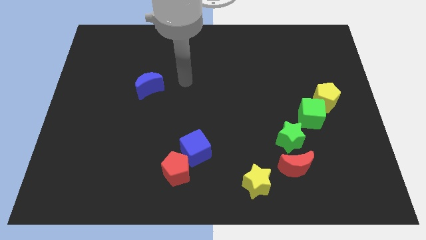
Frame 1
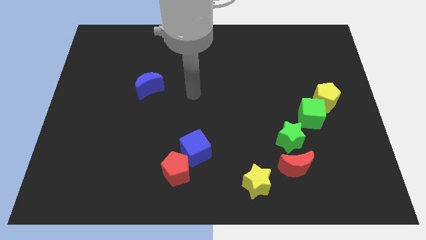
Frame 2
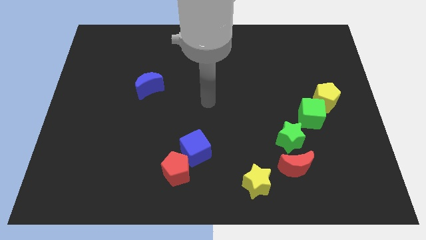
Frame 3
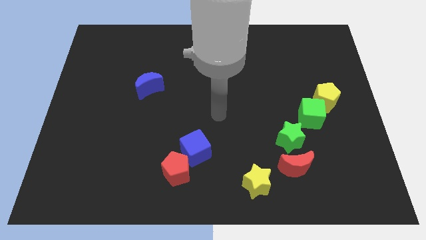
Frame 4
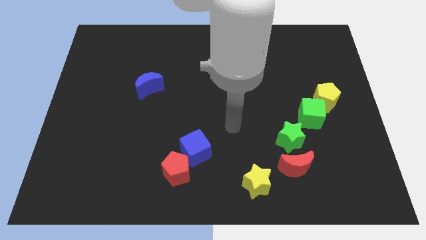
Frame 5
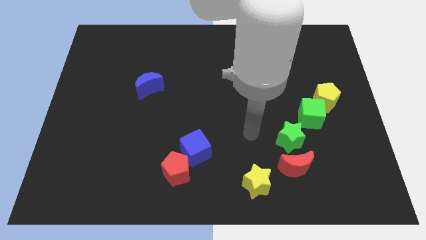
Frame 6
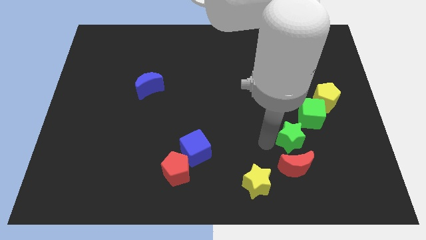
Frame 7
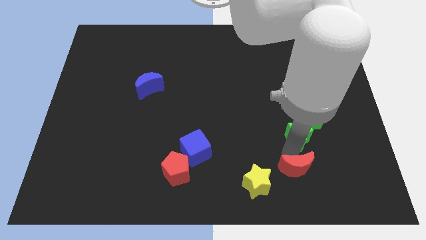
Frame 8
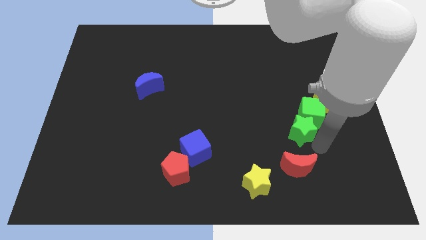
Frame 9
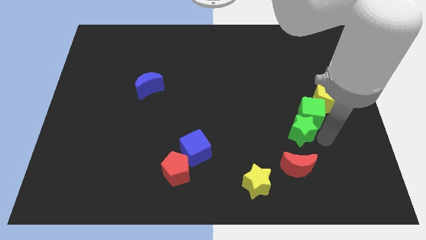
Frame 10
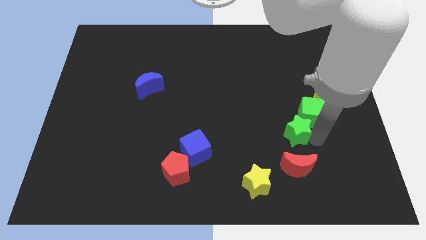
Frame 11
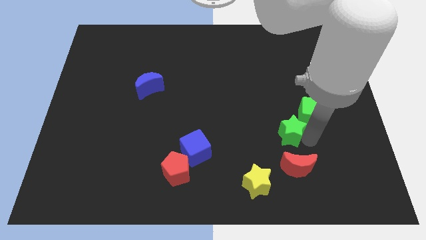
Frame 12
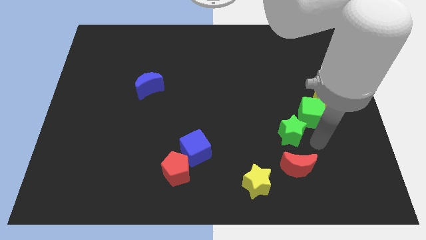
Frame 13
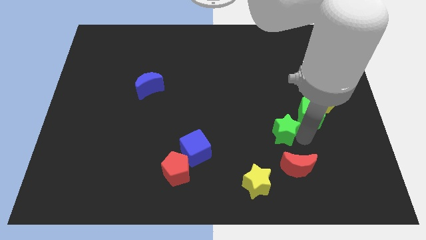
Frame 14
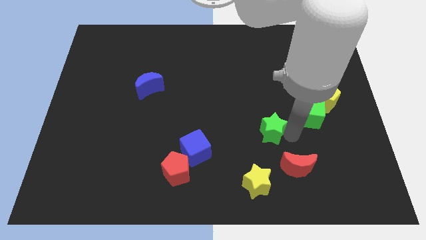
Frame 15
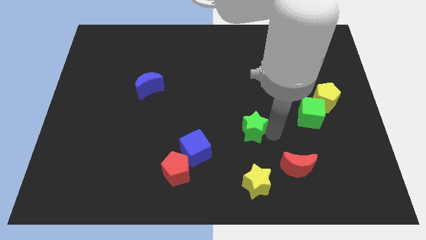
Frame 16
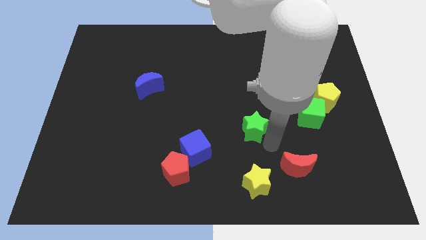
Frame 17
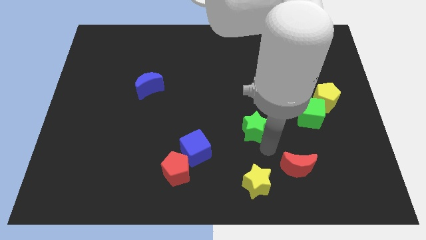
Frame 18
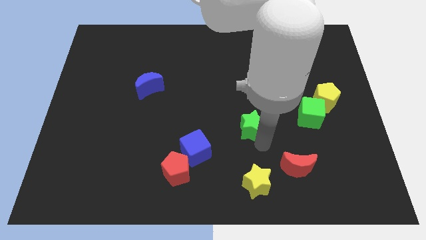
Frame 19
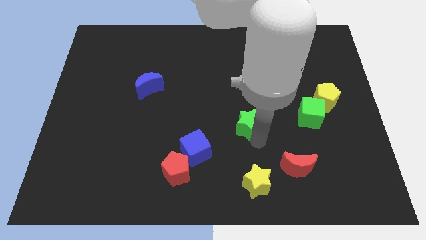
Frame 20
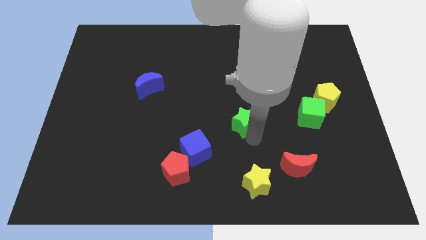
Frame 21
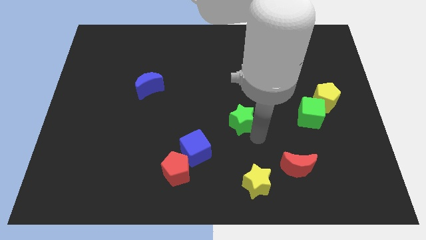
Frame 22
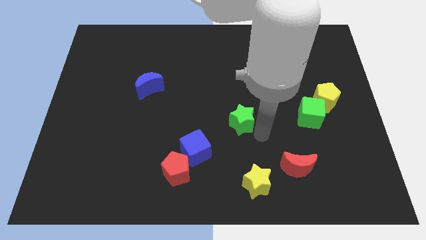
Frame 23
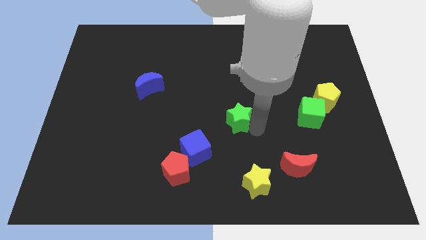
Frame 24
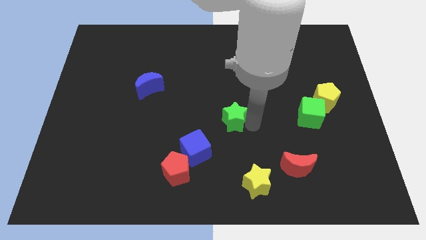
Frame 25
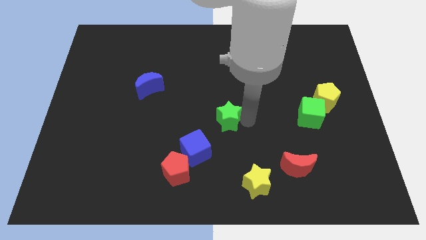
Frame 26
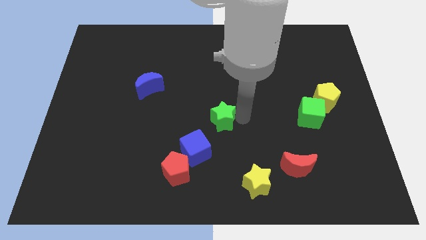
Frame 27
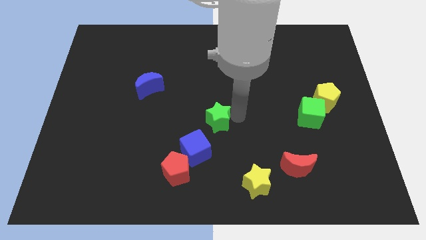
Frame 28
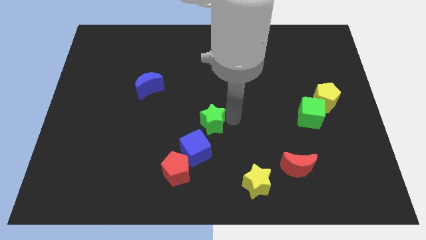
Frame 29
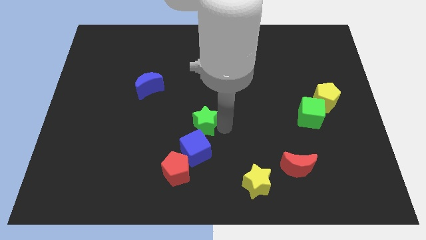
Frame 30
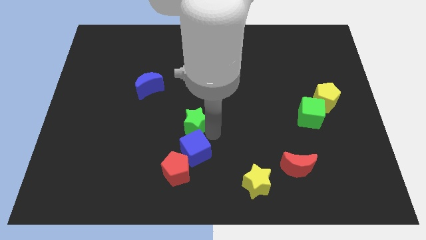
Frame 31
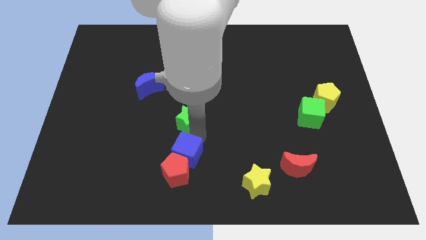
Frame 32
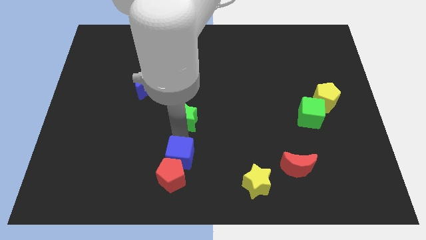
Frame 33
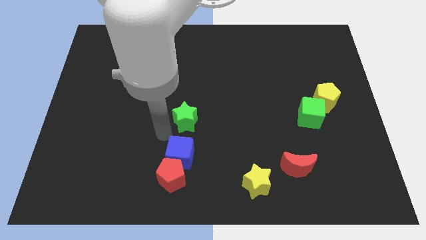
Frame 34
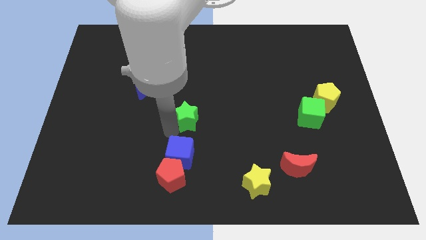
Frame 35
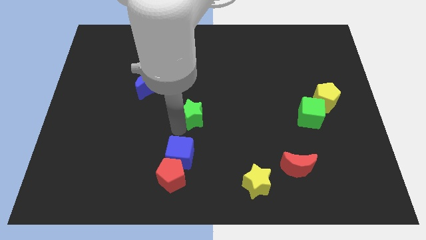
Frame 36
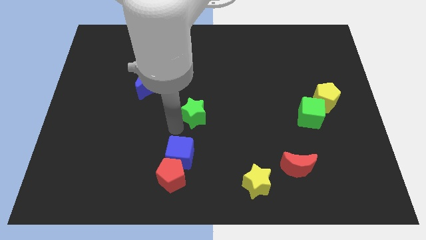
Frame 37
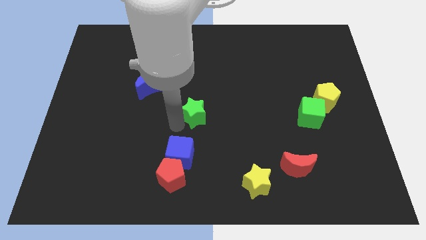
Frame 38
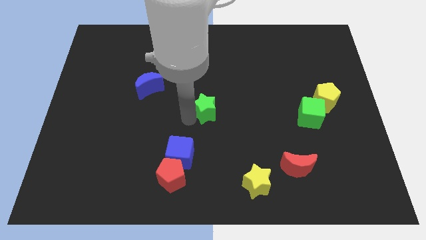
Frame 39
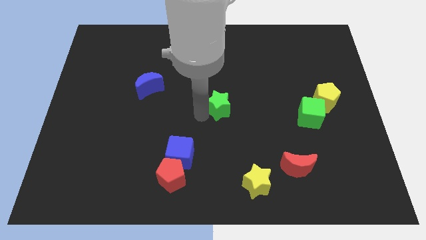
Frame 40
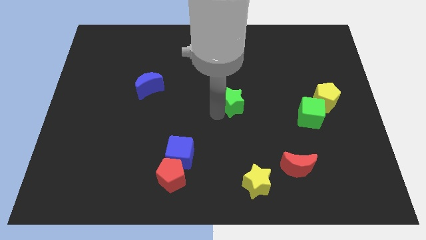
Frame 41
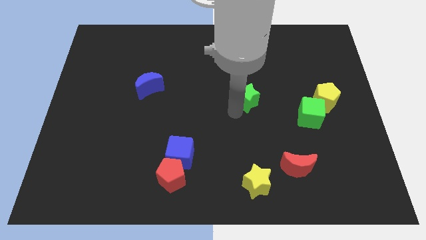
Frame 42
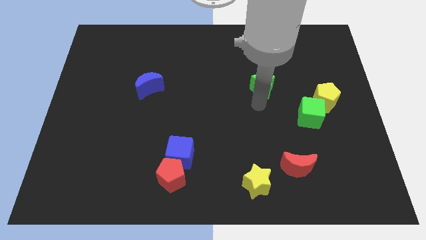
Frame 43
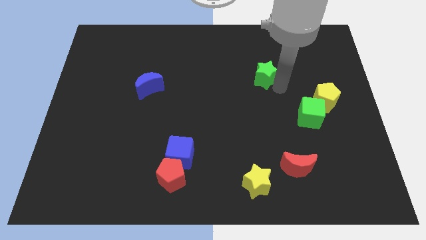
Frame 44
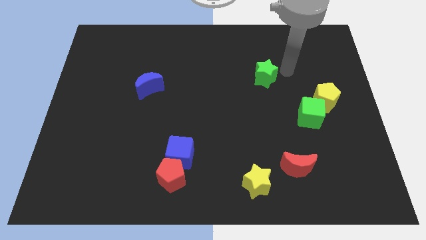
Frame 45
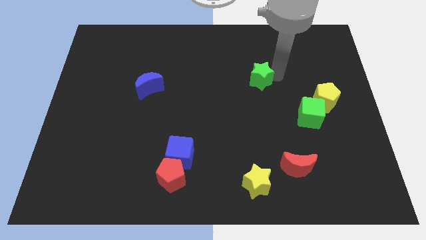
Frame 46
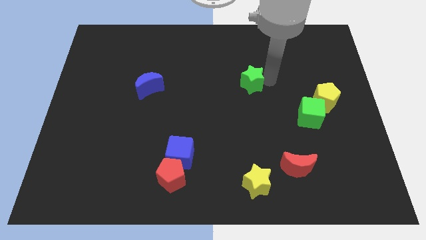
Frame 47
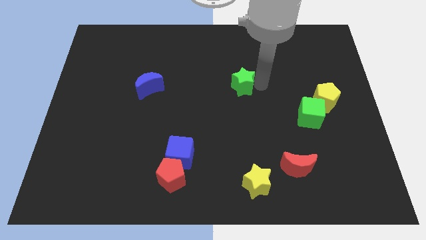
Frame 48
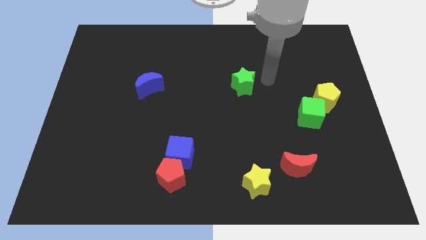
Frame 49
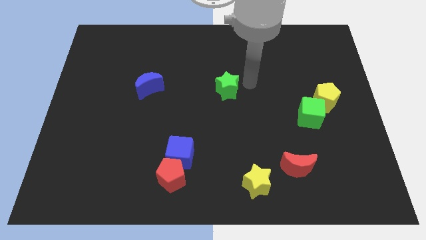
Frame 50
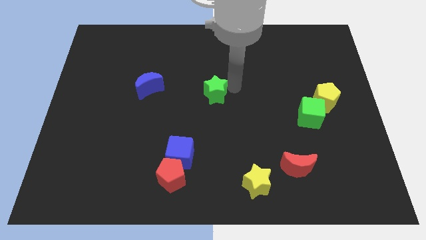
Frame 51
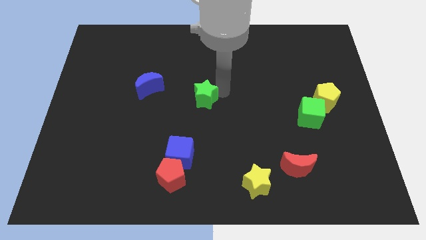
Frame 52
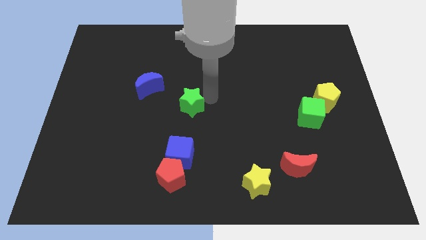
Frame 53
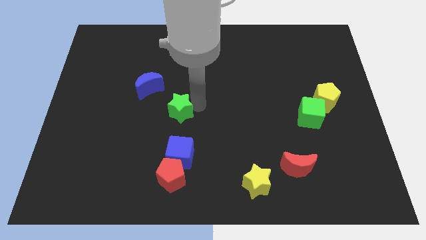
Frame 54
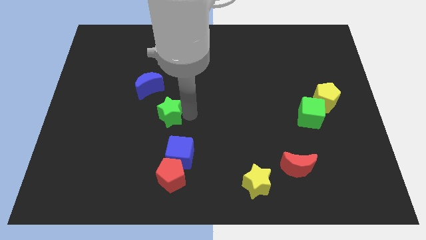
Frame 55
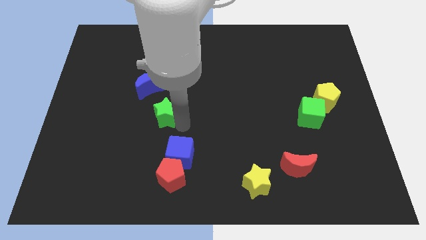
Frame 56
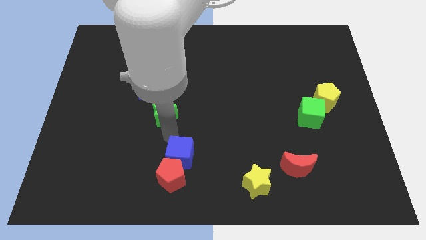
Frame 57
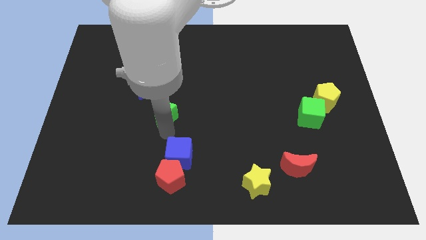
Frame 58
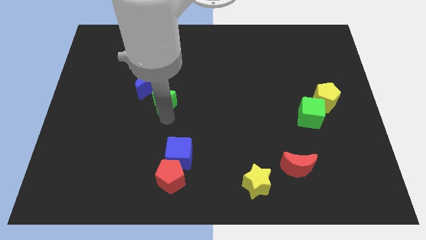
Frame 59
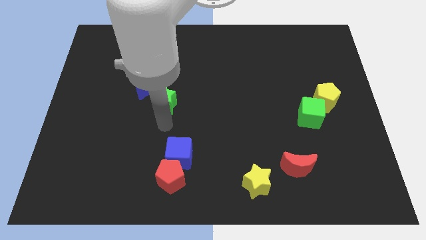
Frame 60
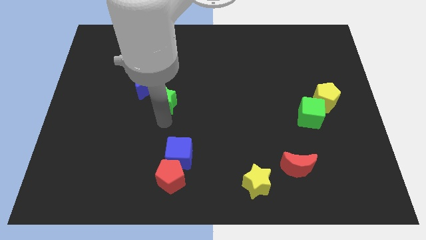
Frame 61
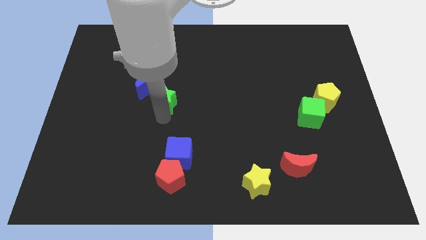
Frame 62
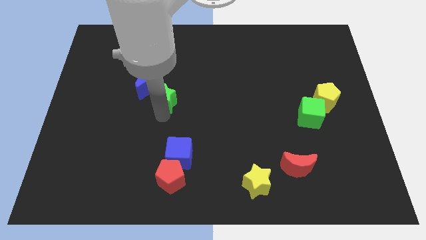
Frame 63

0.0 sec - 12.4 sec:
put the green star close to the blue moon

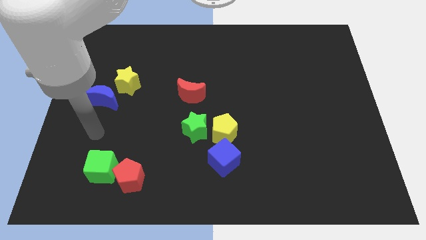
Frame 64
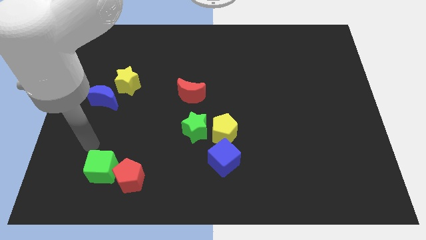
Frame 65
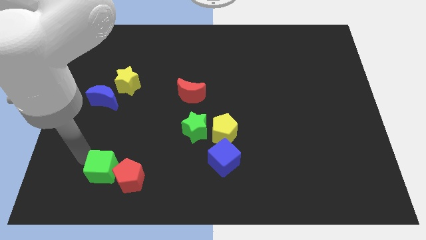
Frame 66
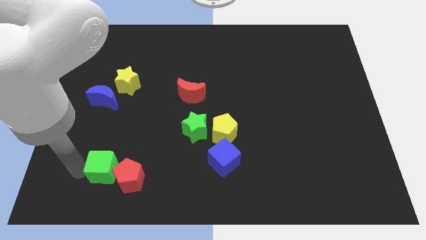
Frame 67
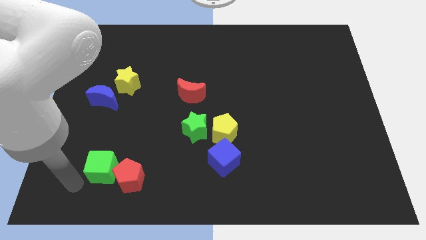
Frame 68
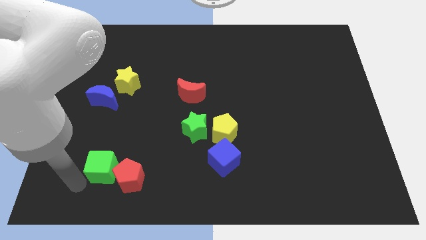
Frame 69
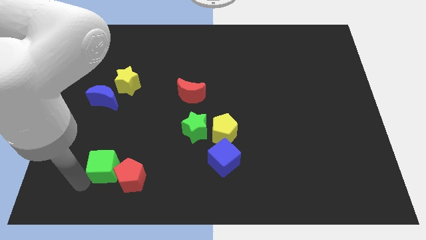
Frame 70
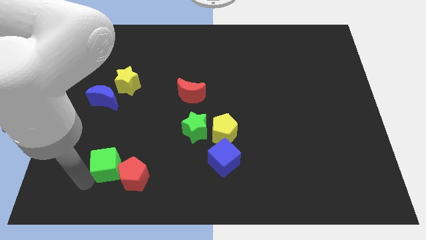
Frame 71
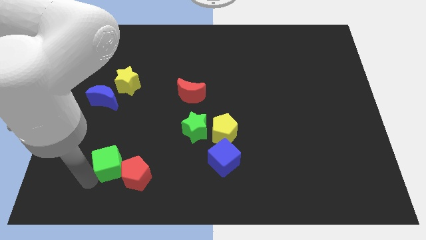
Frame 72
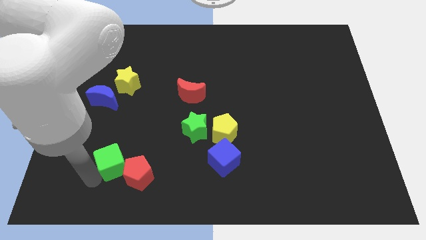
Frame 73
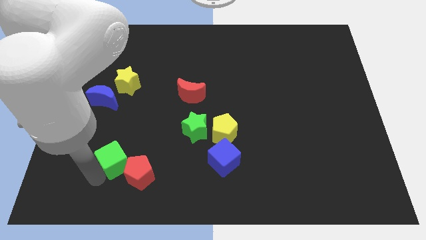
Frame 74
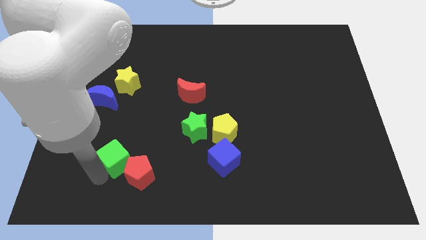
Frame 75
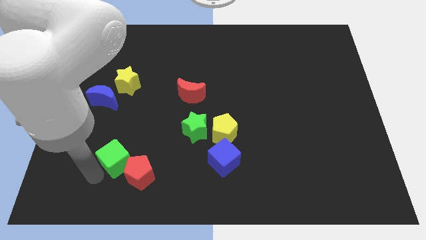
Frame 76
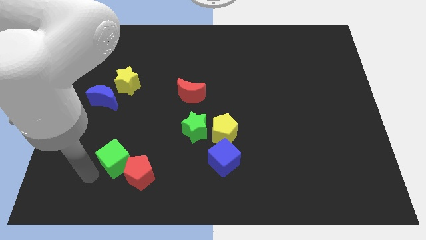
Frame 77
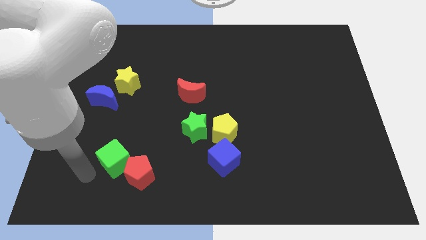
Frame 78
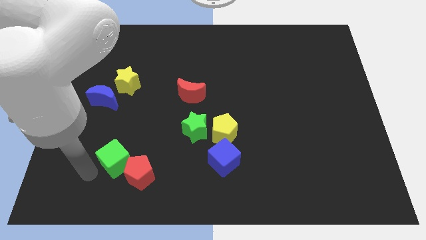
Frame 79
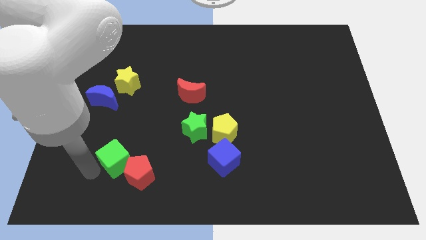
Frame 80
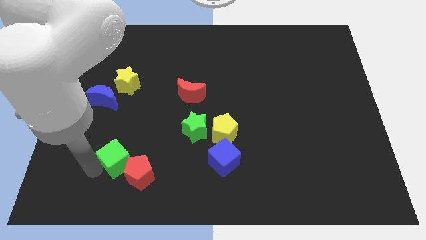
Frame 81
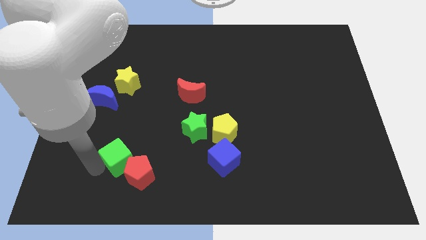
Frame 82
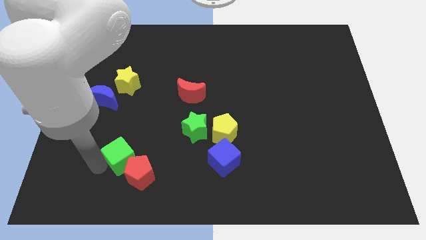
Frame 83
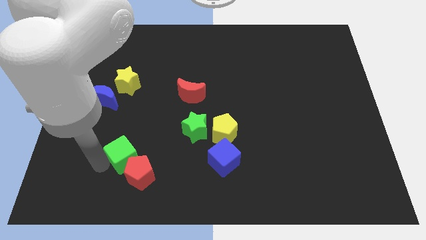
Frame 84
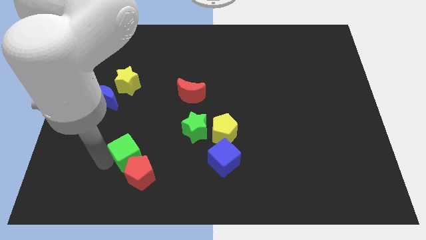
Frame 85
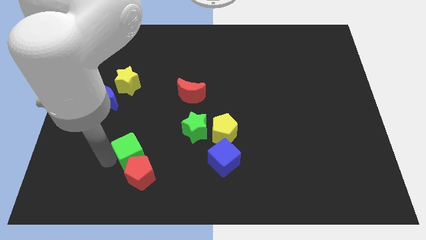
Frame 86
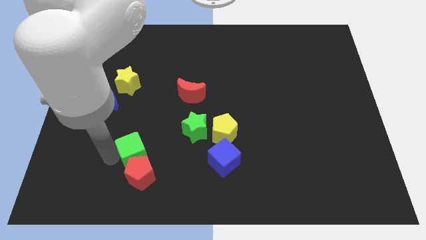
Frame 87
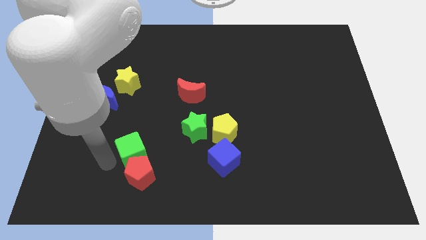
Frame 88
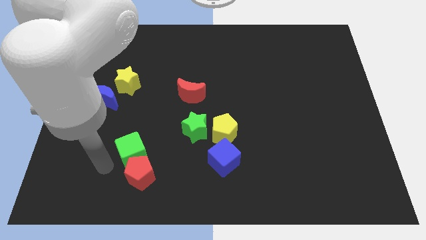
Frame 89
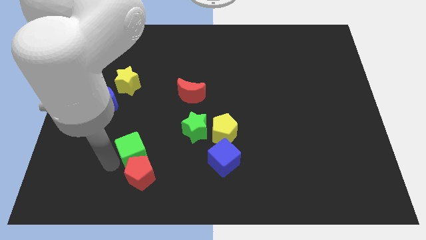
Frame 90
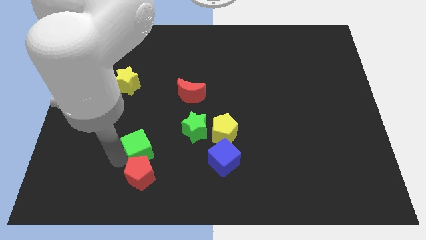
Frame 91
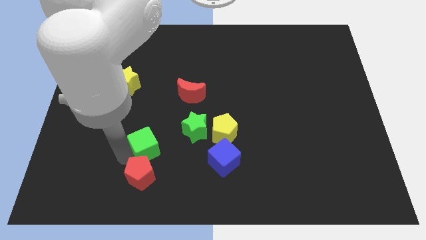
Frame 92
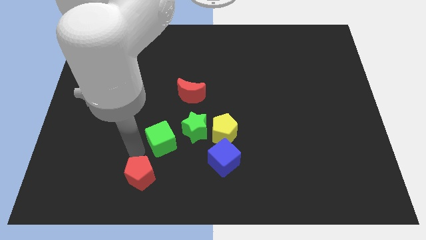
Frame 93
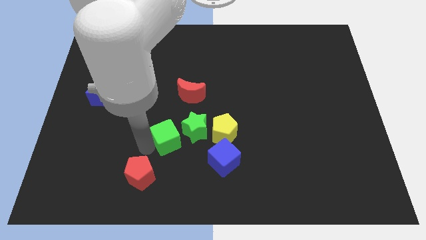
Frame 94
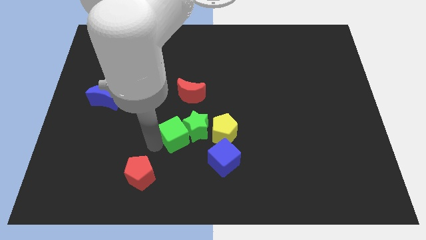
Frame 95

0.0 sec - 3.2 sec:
slide the green cube next to the green star
